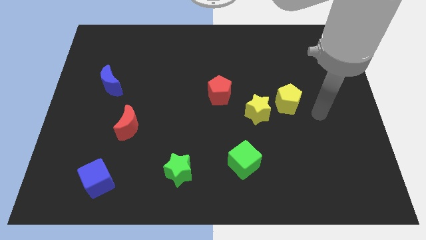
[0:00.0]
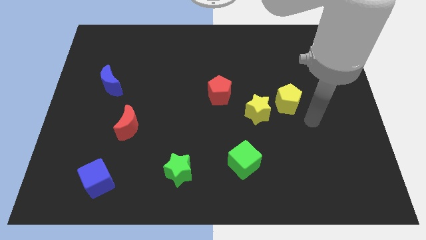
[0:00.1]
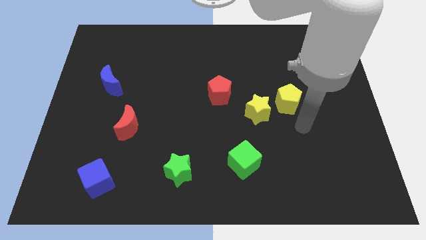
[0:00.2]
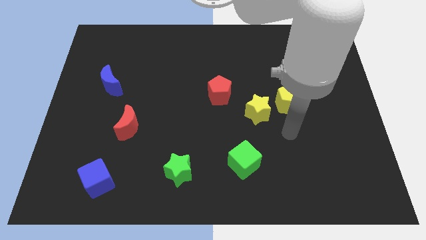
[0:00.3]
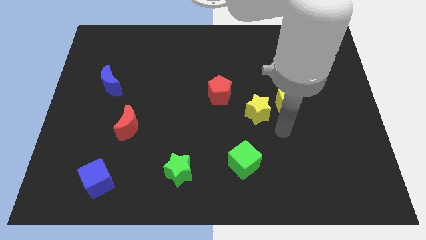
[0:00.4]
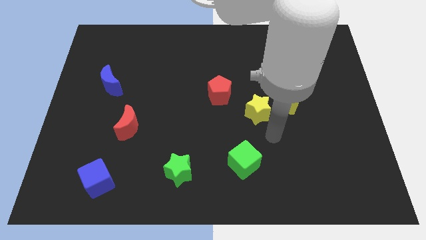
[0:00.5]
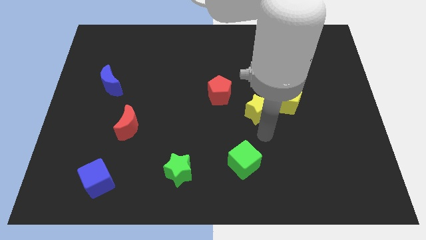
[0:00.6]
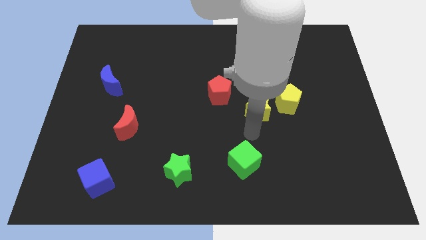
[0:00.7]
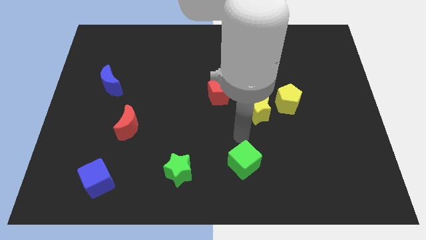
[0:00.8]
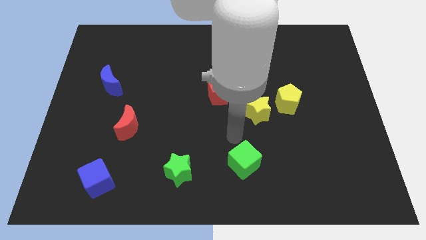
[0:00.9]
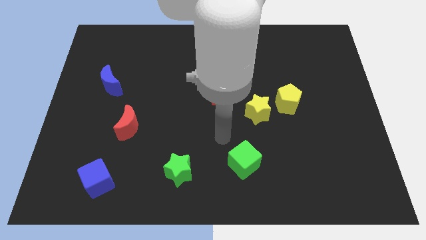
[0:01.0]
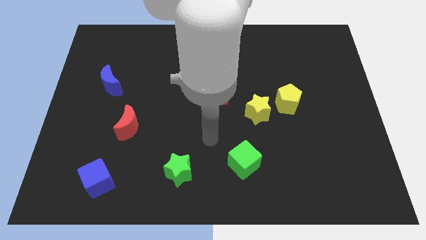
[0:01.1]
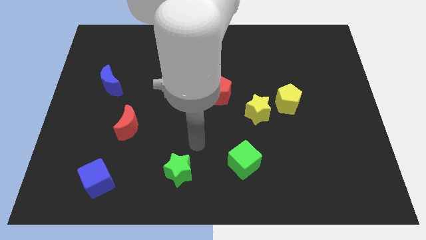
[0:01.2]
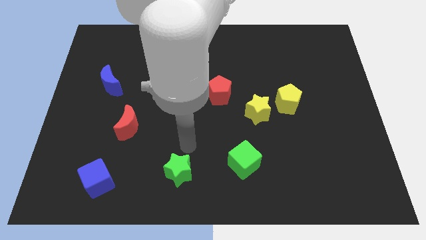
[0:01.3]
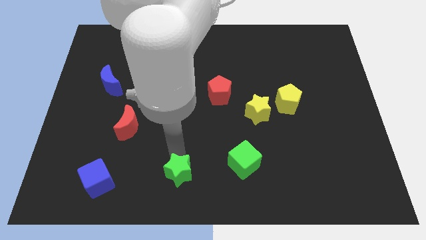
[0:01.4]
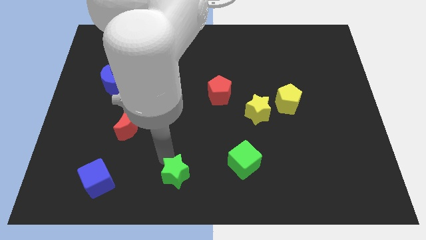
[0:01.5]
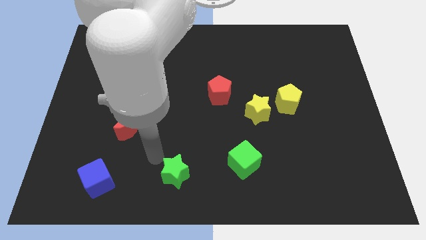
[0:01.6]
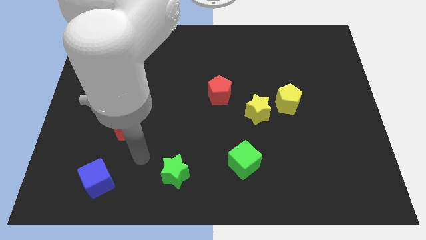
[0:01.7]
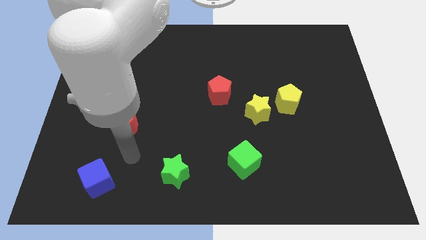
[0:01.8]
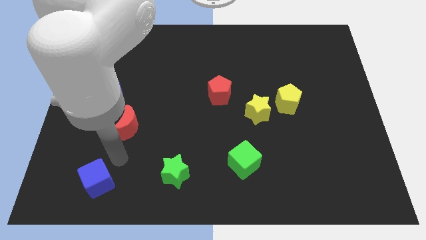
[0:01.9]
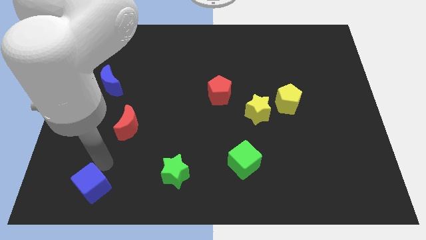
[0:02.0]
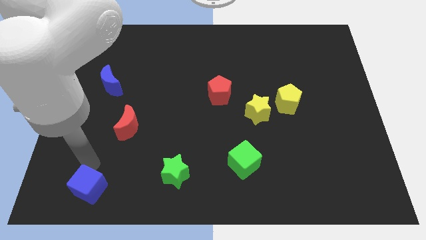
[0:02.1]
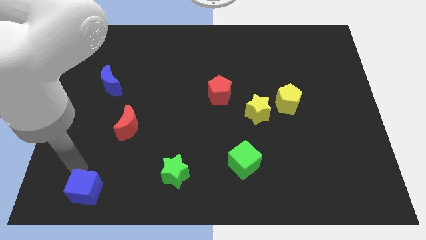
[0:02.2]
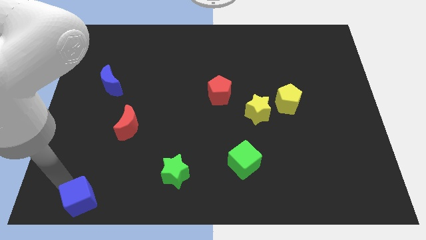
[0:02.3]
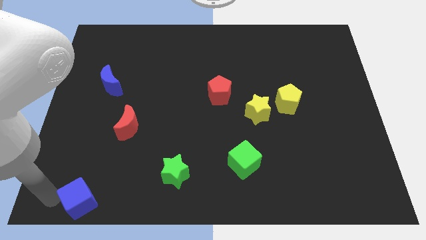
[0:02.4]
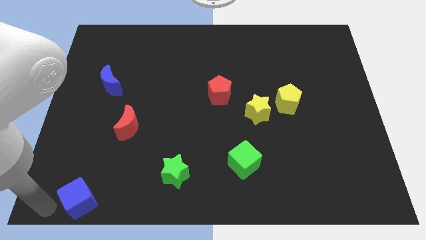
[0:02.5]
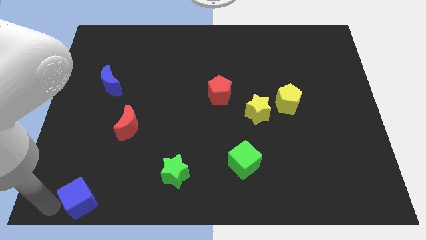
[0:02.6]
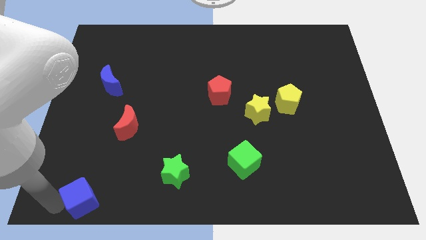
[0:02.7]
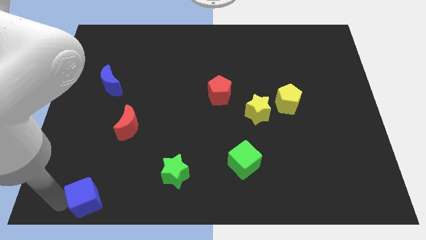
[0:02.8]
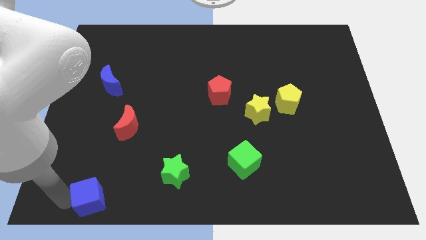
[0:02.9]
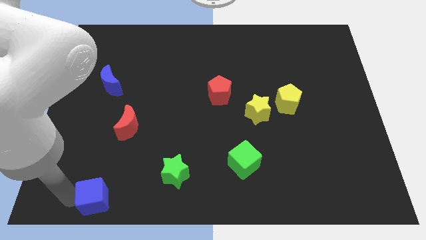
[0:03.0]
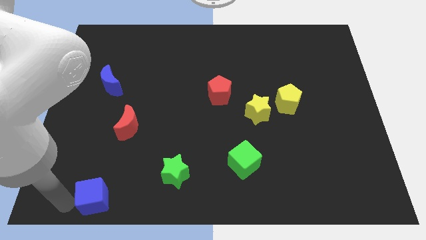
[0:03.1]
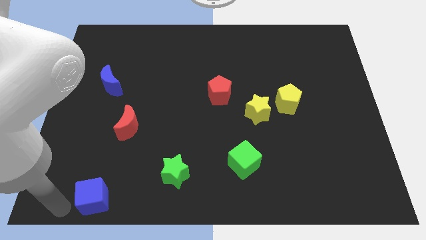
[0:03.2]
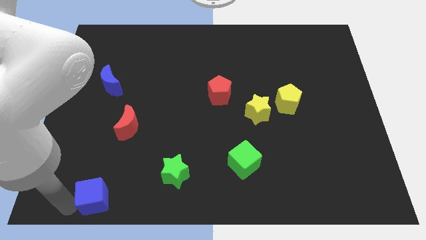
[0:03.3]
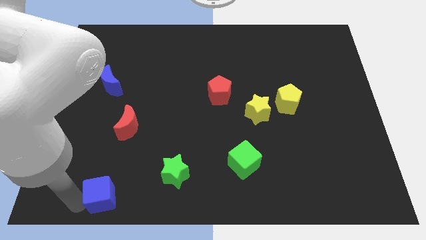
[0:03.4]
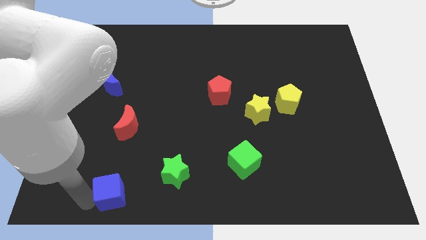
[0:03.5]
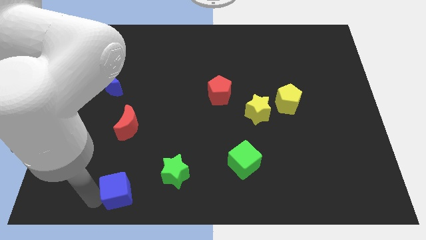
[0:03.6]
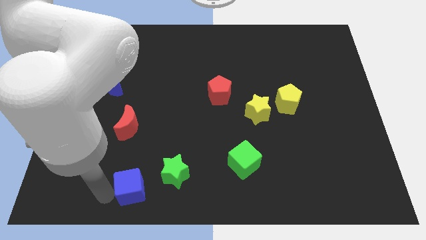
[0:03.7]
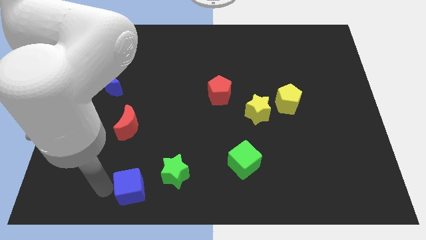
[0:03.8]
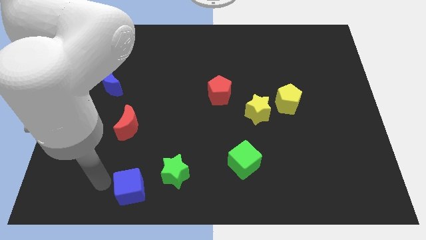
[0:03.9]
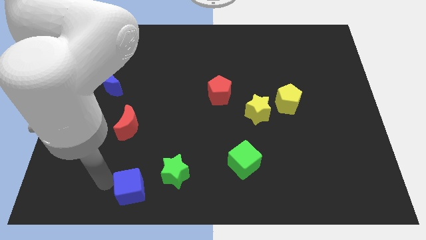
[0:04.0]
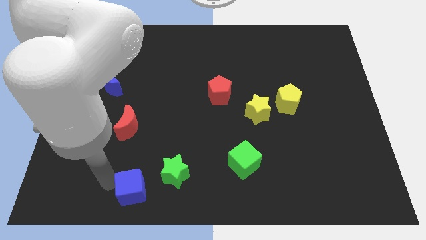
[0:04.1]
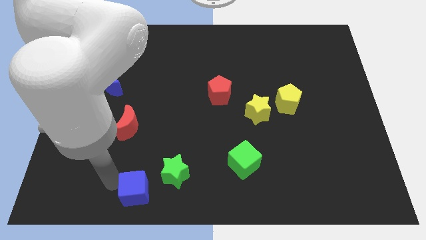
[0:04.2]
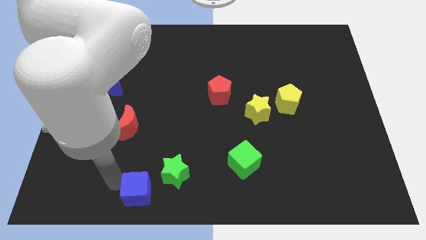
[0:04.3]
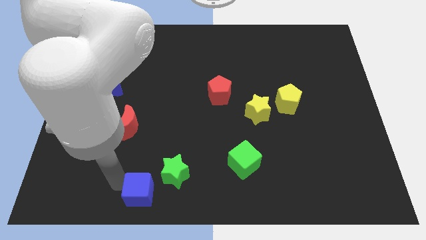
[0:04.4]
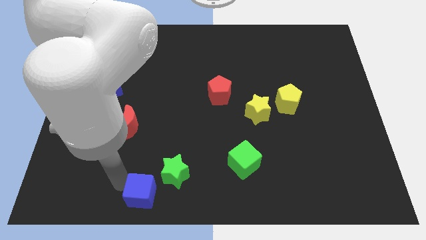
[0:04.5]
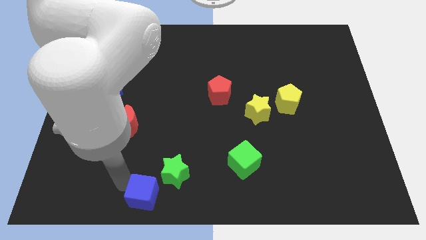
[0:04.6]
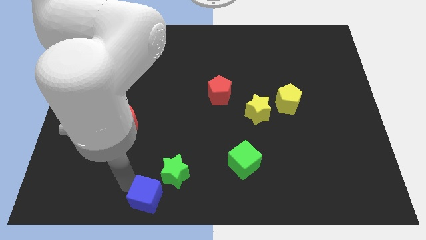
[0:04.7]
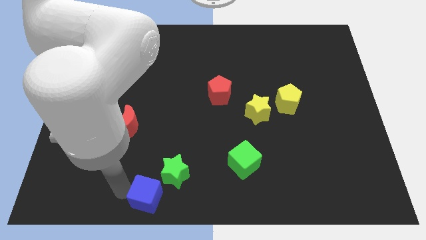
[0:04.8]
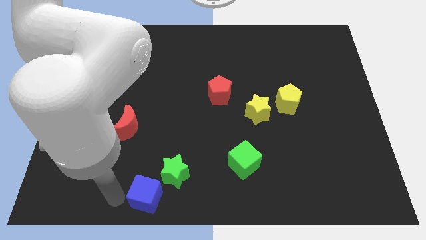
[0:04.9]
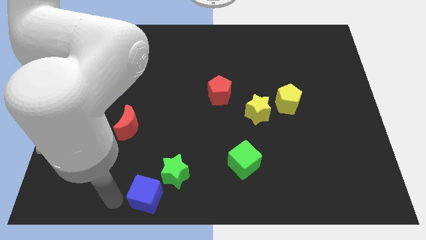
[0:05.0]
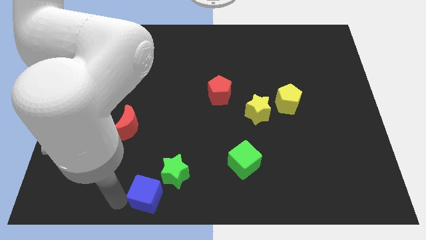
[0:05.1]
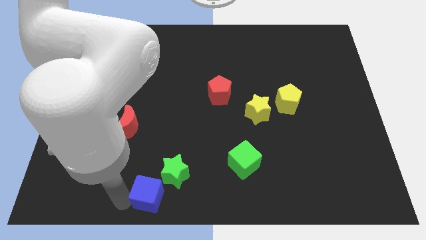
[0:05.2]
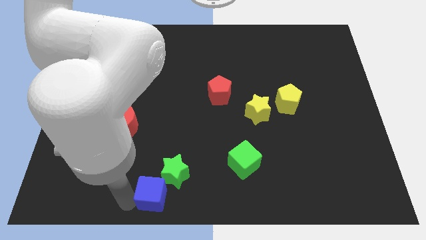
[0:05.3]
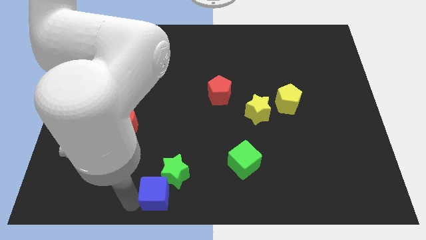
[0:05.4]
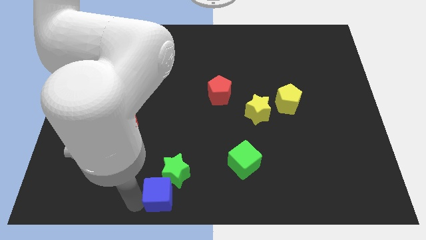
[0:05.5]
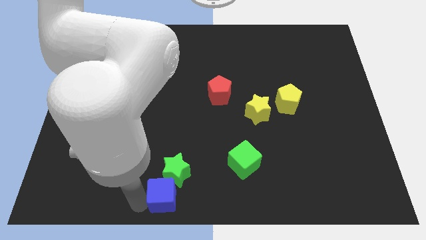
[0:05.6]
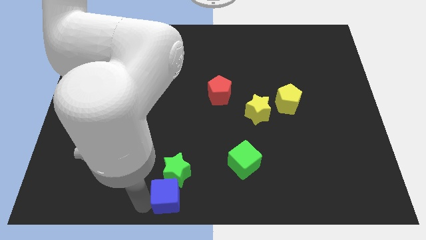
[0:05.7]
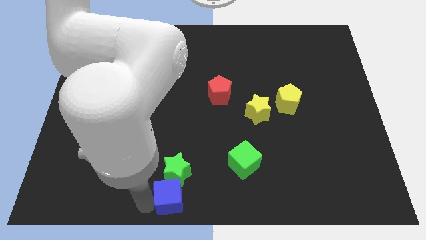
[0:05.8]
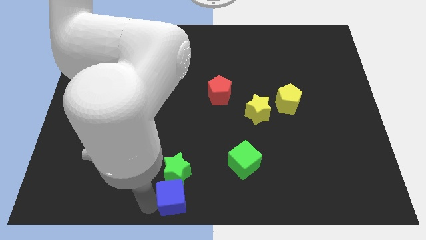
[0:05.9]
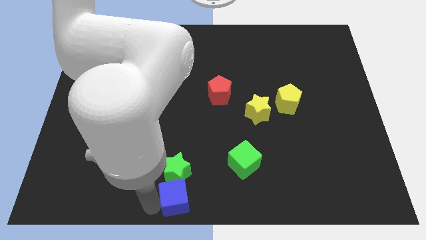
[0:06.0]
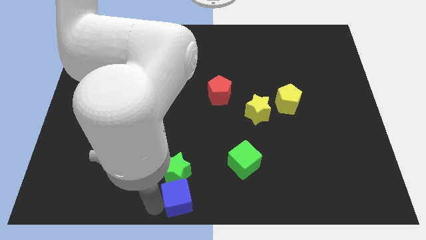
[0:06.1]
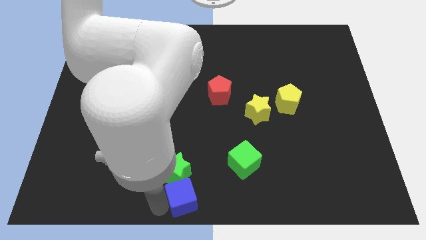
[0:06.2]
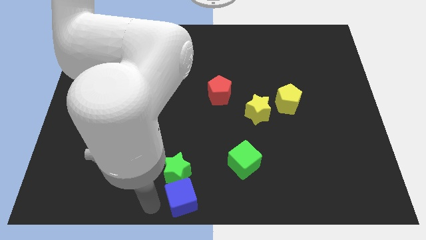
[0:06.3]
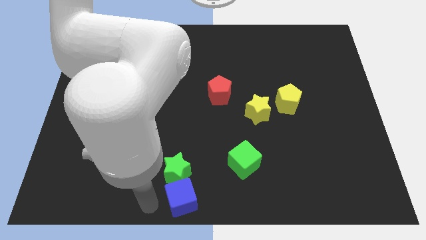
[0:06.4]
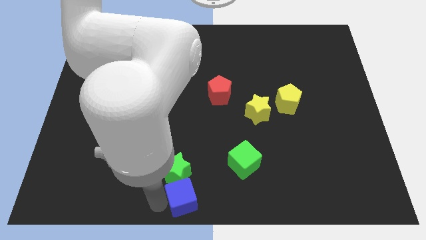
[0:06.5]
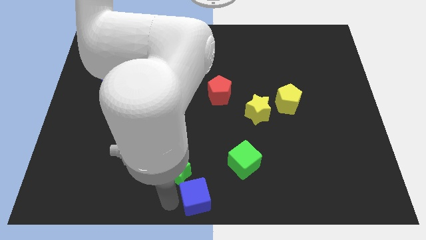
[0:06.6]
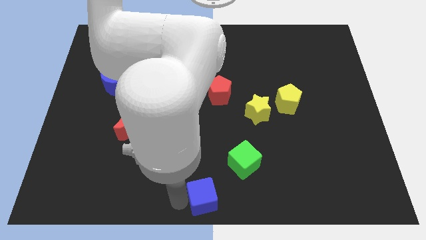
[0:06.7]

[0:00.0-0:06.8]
move the blue cube to the right

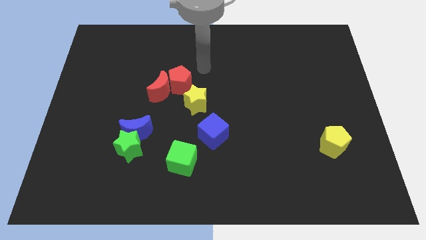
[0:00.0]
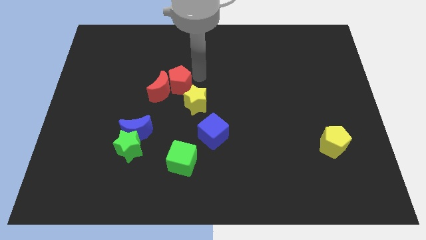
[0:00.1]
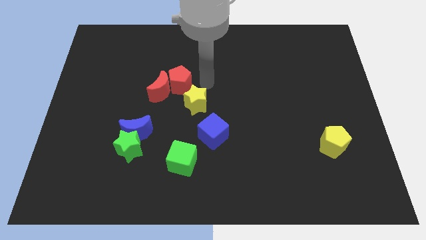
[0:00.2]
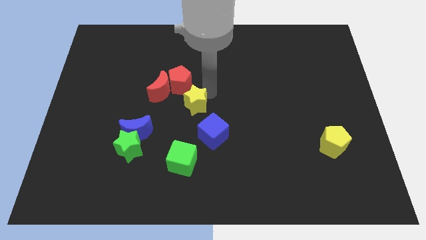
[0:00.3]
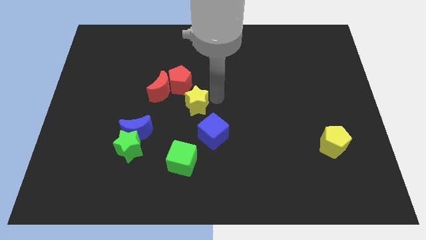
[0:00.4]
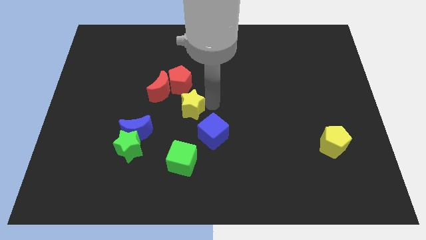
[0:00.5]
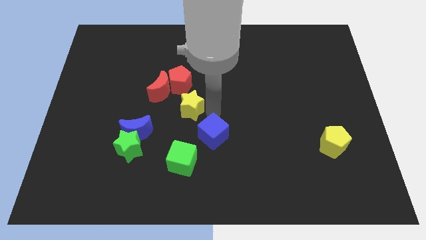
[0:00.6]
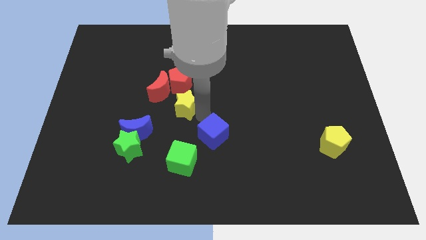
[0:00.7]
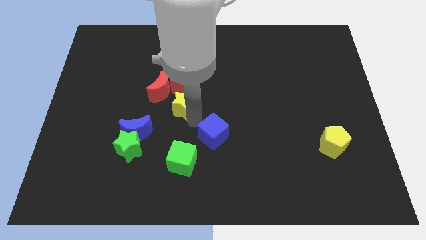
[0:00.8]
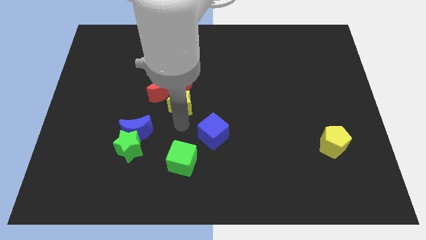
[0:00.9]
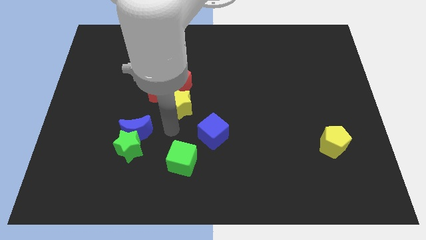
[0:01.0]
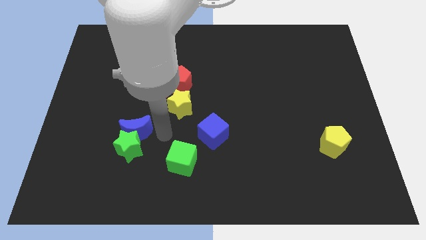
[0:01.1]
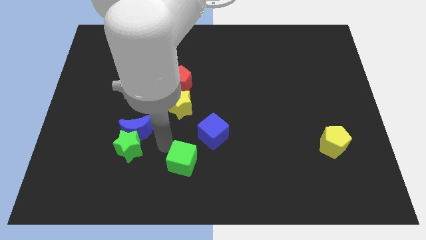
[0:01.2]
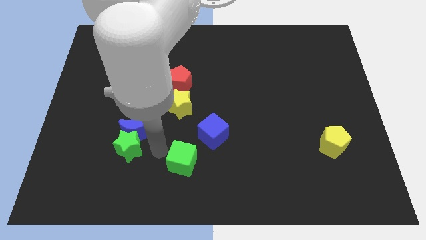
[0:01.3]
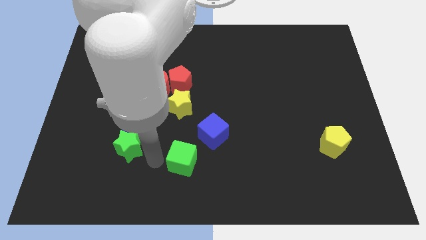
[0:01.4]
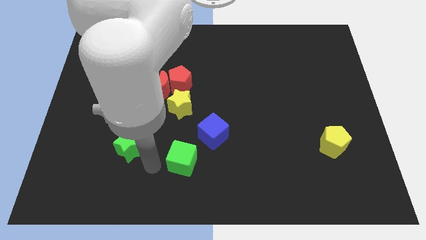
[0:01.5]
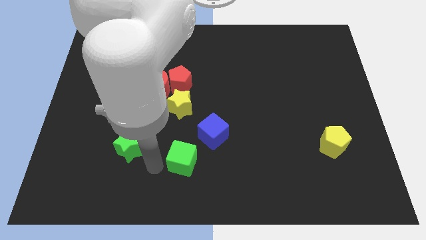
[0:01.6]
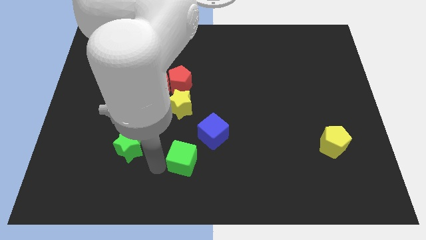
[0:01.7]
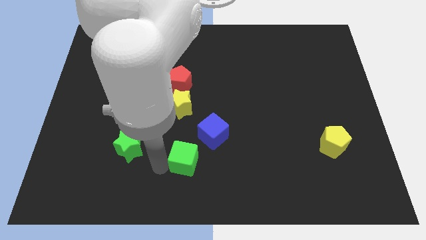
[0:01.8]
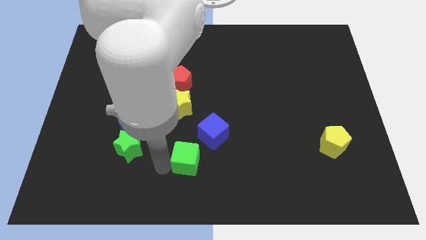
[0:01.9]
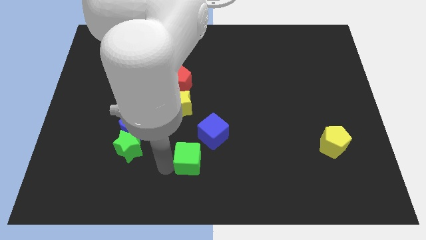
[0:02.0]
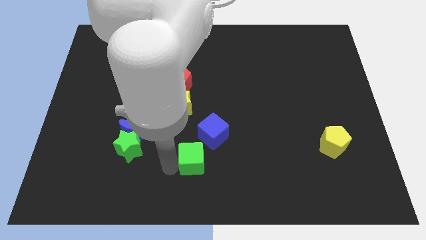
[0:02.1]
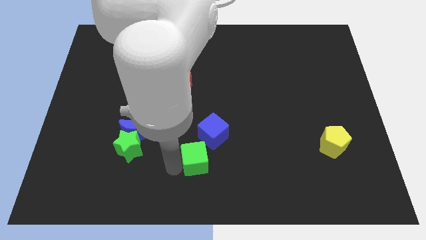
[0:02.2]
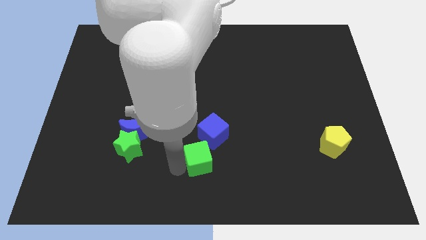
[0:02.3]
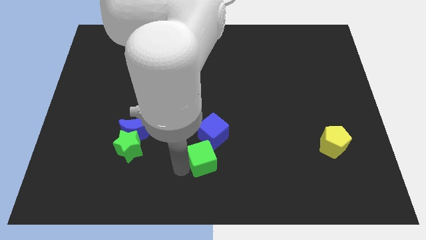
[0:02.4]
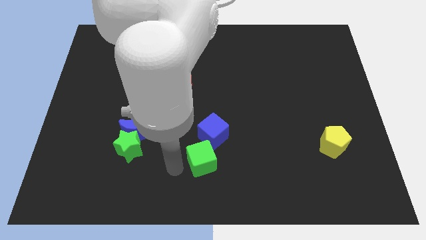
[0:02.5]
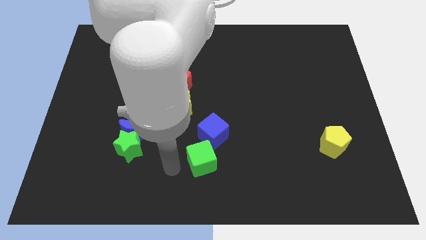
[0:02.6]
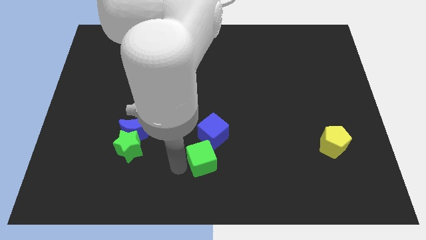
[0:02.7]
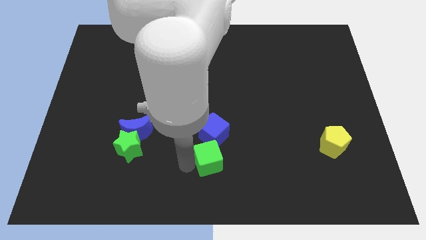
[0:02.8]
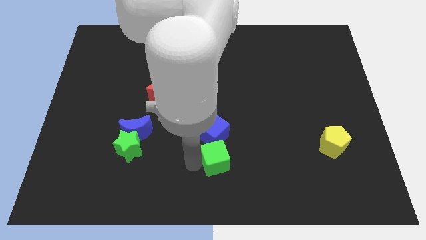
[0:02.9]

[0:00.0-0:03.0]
push the green cube to the right a little
